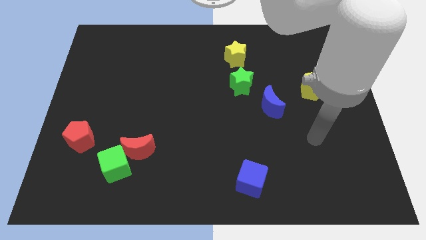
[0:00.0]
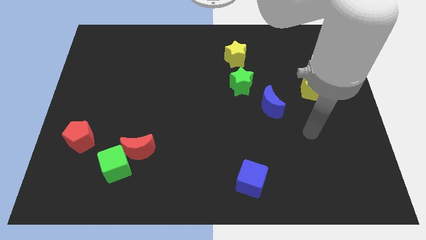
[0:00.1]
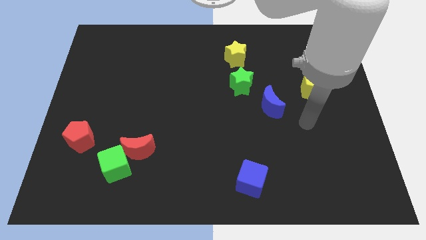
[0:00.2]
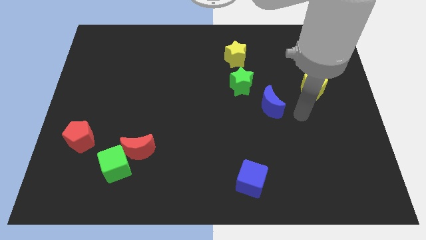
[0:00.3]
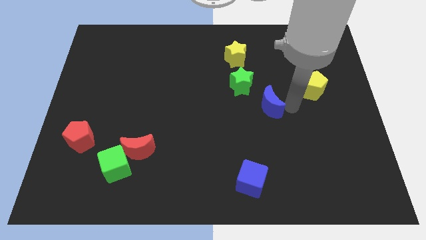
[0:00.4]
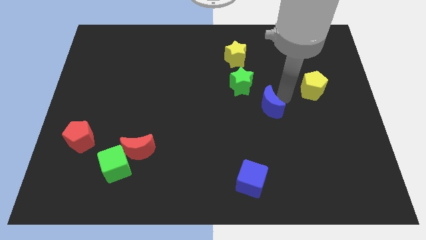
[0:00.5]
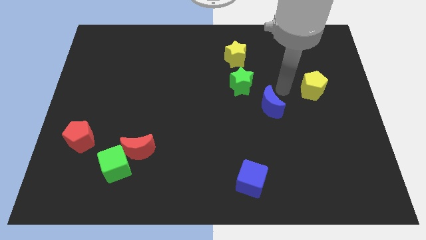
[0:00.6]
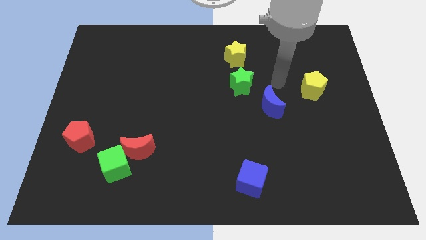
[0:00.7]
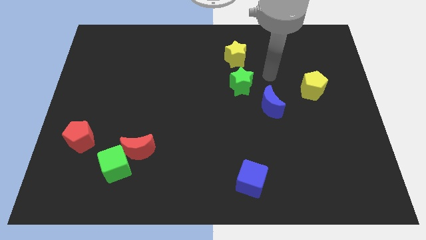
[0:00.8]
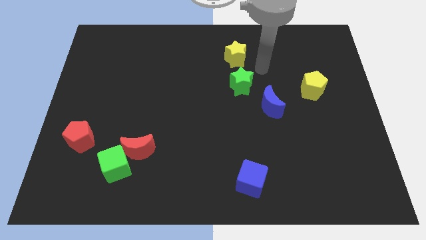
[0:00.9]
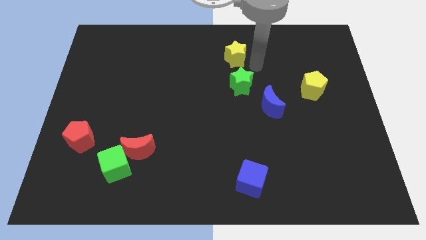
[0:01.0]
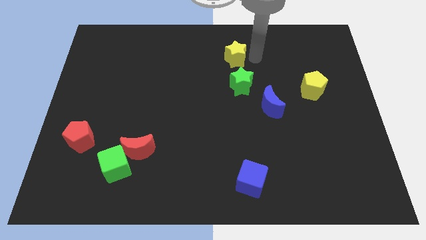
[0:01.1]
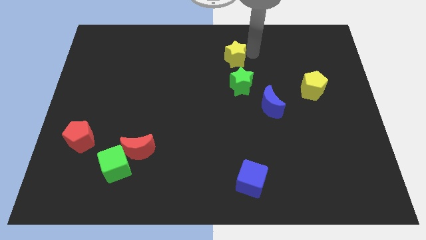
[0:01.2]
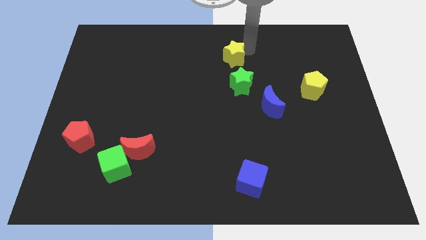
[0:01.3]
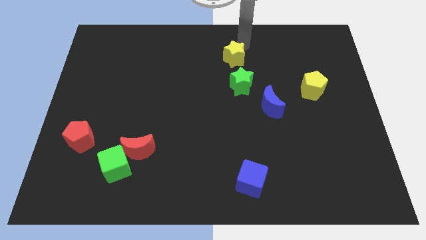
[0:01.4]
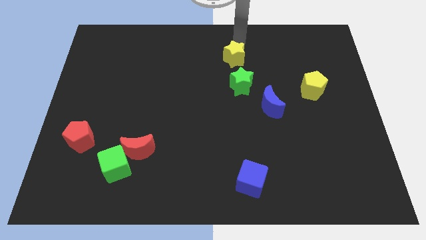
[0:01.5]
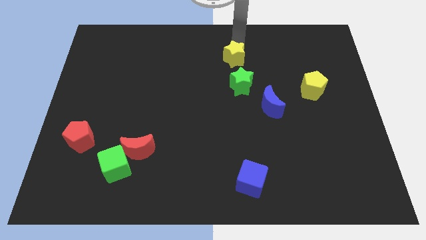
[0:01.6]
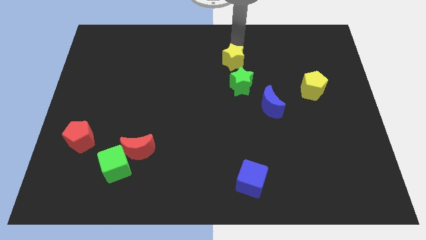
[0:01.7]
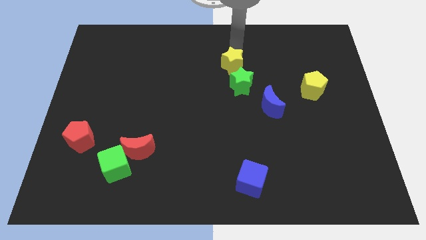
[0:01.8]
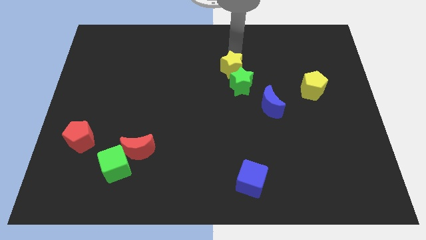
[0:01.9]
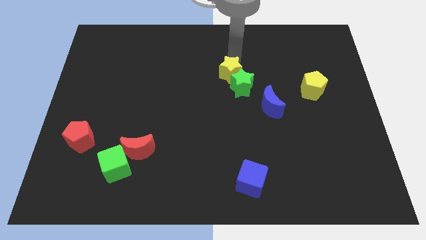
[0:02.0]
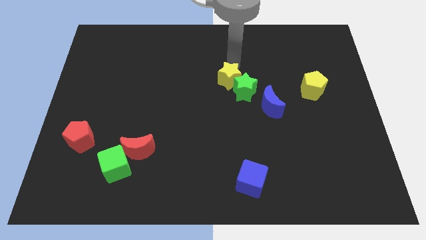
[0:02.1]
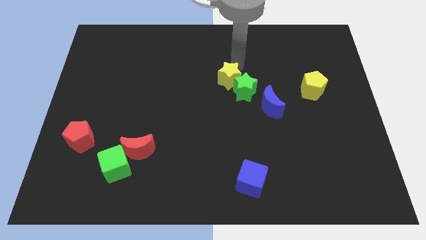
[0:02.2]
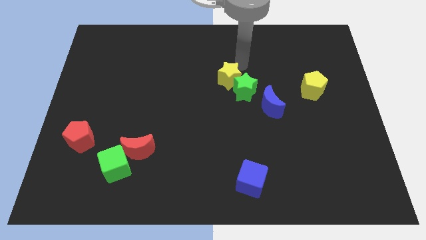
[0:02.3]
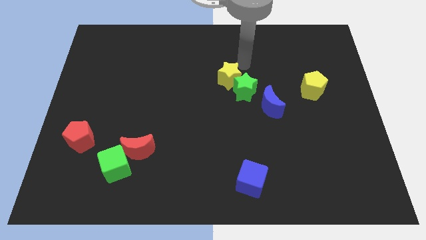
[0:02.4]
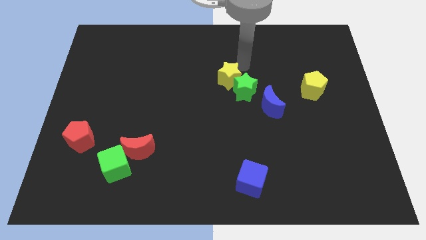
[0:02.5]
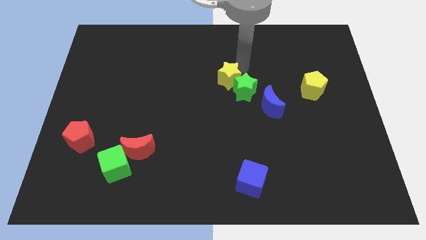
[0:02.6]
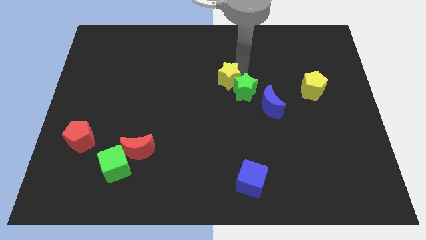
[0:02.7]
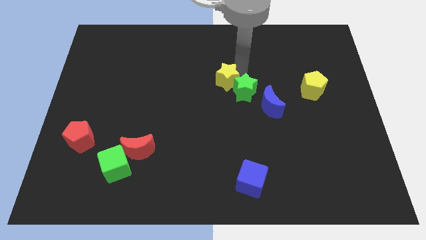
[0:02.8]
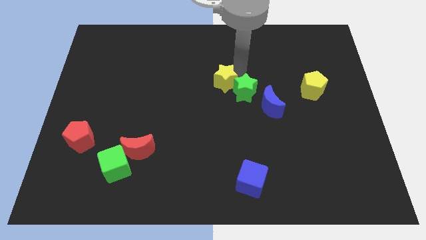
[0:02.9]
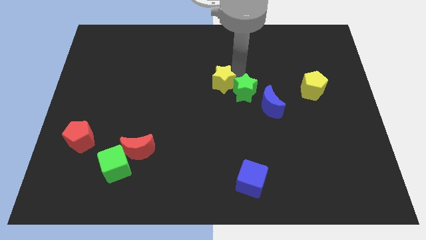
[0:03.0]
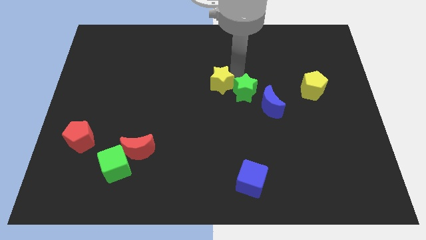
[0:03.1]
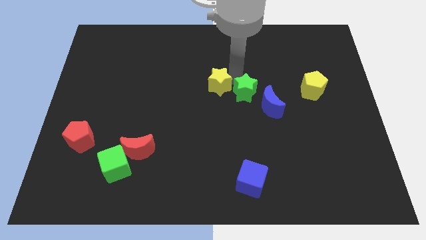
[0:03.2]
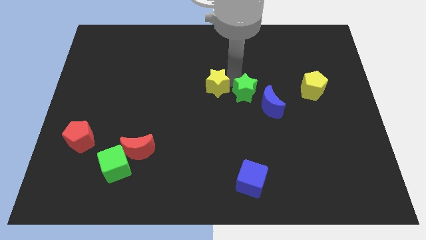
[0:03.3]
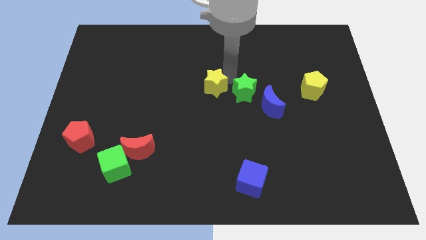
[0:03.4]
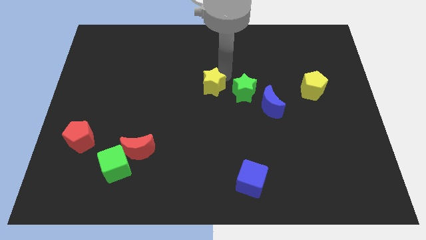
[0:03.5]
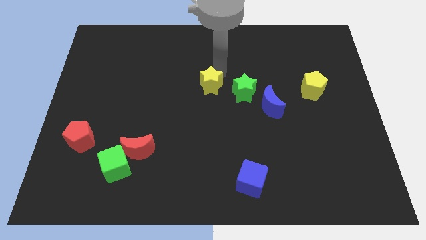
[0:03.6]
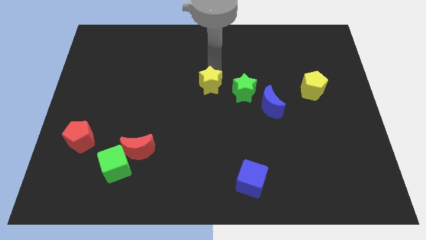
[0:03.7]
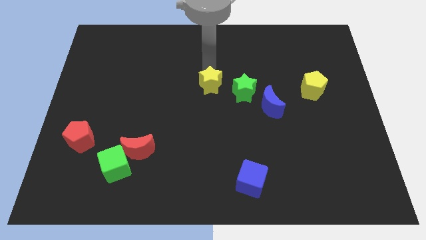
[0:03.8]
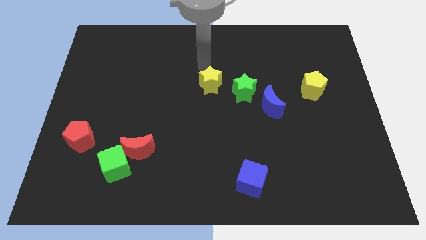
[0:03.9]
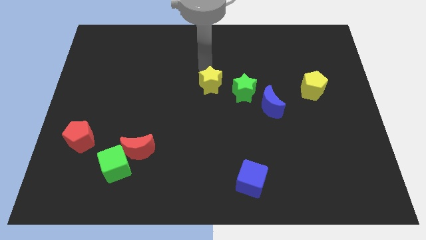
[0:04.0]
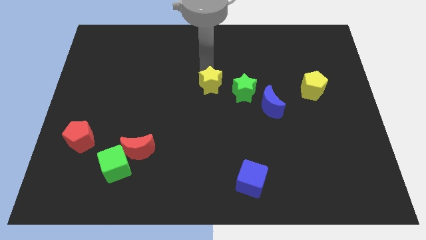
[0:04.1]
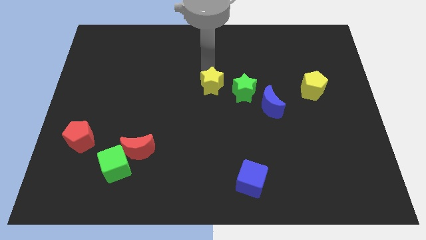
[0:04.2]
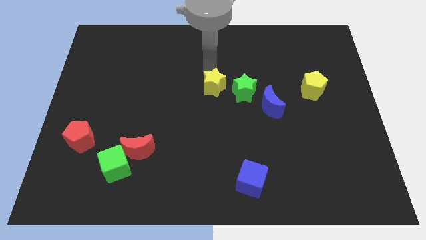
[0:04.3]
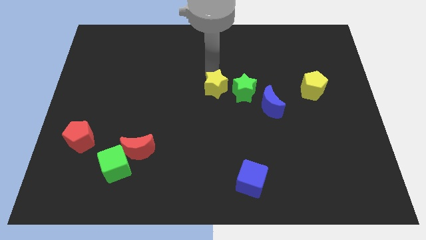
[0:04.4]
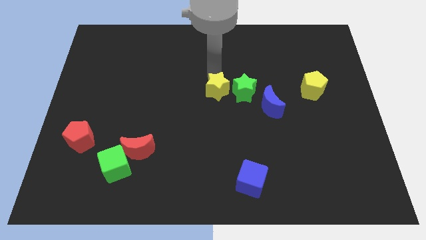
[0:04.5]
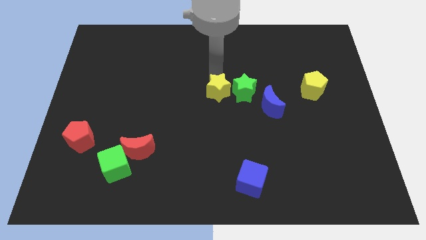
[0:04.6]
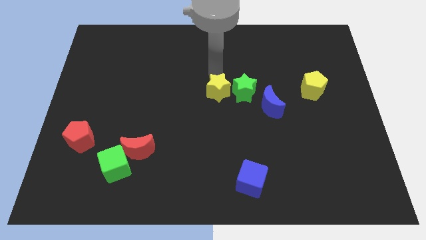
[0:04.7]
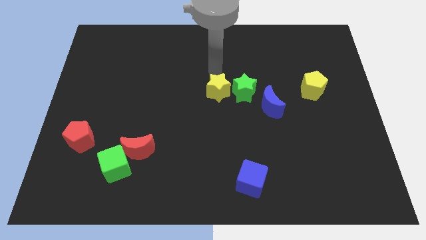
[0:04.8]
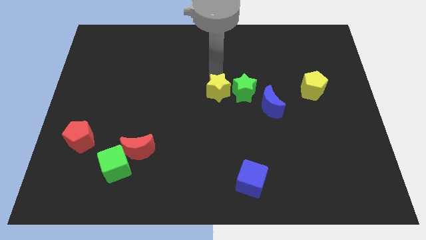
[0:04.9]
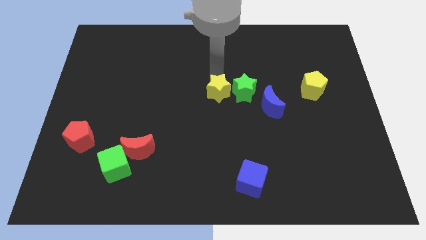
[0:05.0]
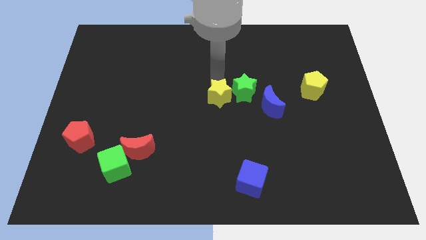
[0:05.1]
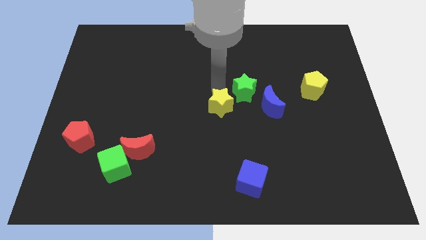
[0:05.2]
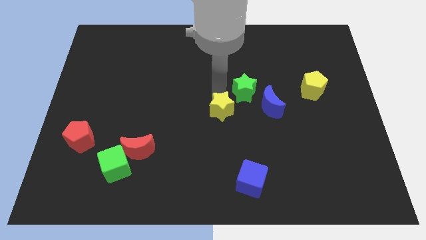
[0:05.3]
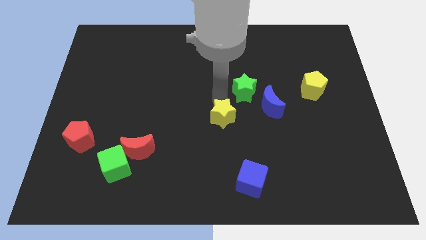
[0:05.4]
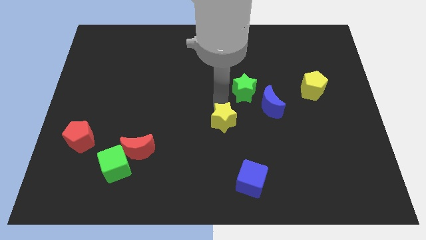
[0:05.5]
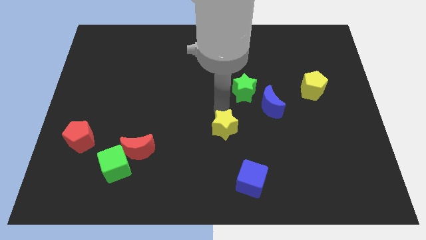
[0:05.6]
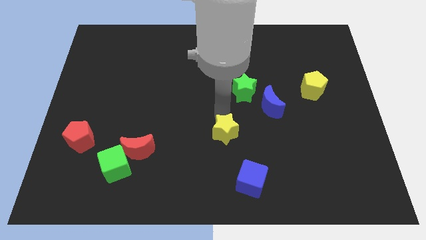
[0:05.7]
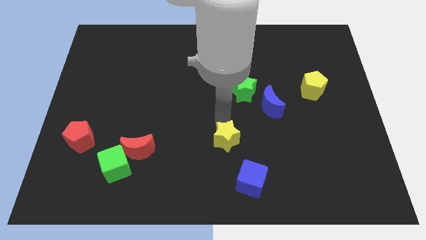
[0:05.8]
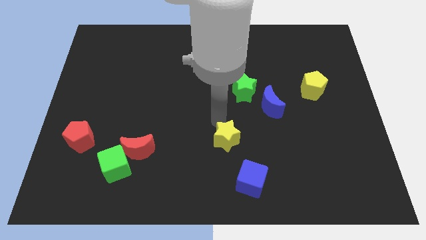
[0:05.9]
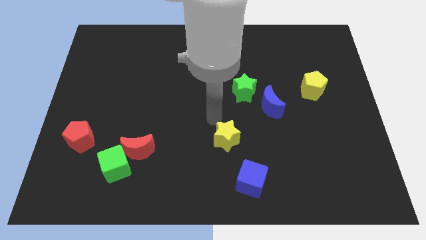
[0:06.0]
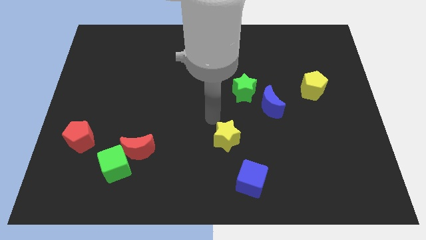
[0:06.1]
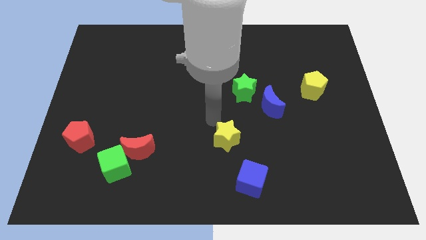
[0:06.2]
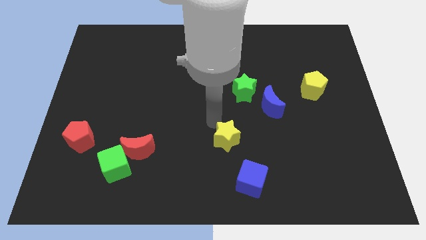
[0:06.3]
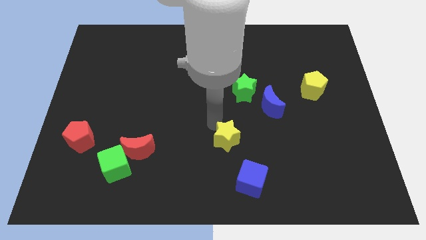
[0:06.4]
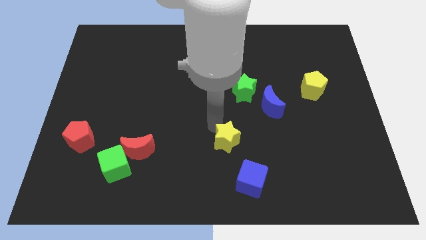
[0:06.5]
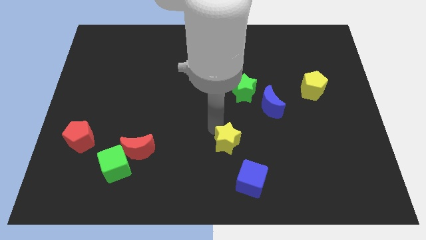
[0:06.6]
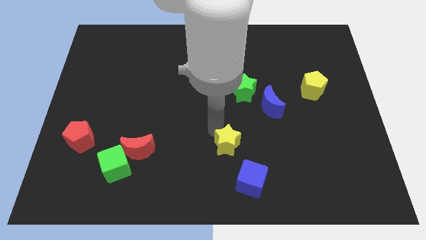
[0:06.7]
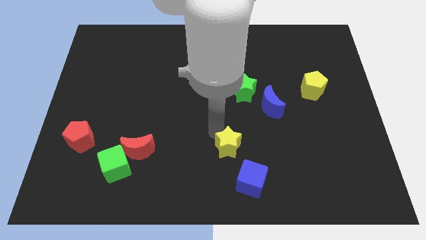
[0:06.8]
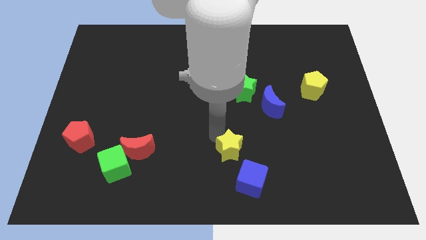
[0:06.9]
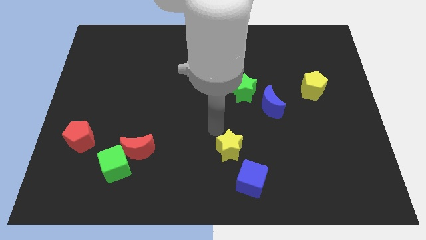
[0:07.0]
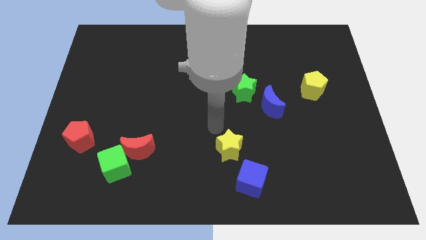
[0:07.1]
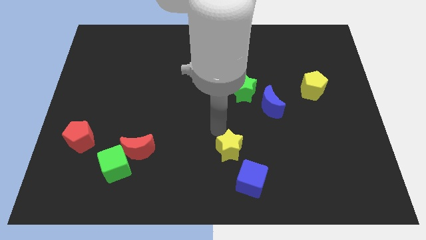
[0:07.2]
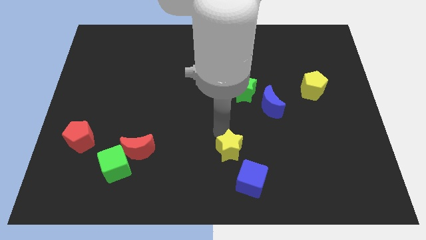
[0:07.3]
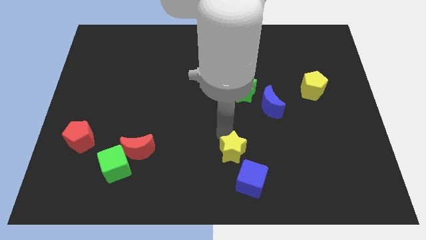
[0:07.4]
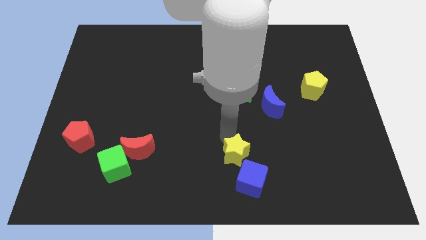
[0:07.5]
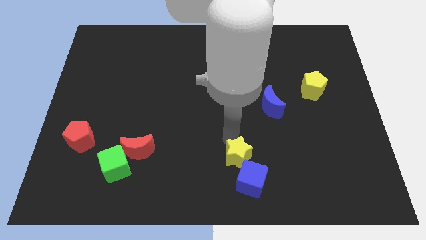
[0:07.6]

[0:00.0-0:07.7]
slide the yellow star towards the blue cube
